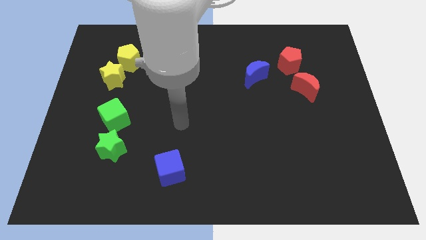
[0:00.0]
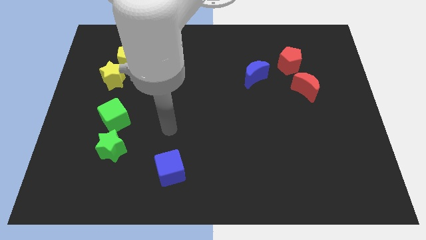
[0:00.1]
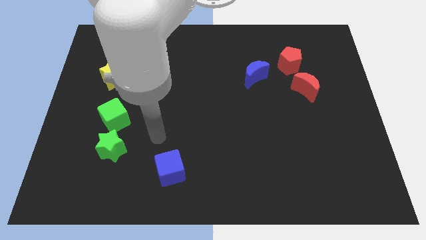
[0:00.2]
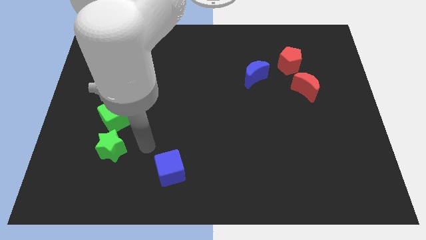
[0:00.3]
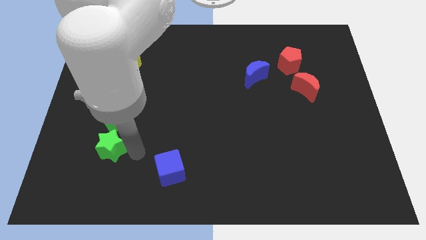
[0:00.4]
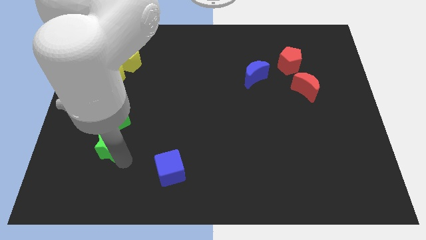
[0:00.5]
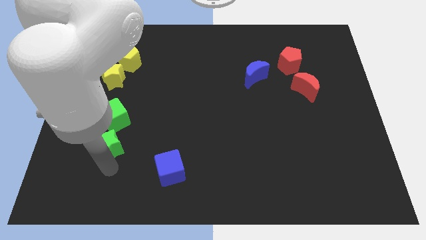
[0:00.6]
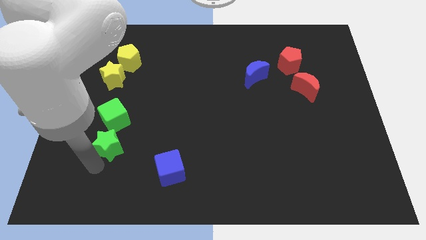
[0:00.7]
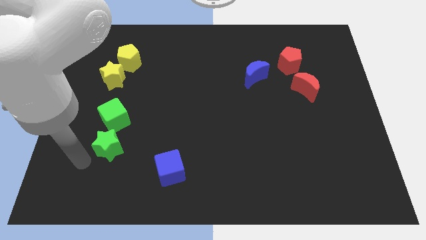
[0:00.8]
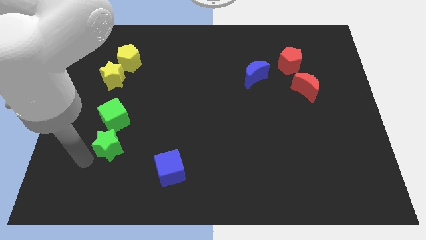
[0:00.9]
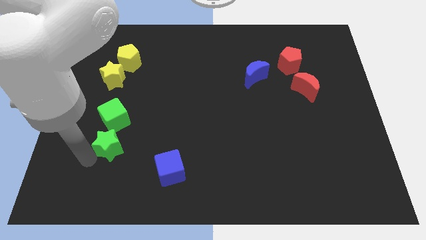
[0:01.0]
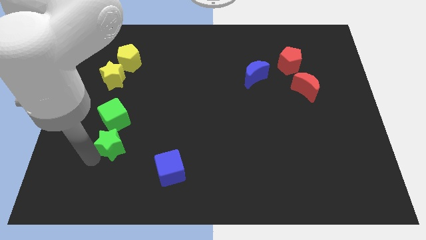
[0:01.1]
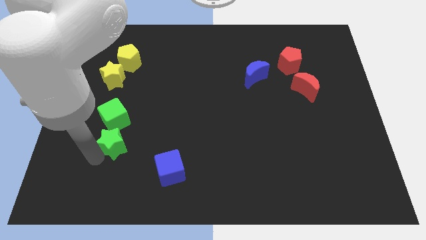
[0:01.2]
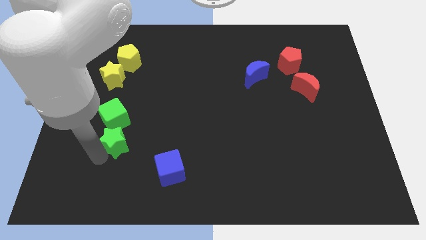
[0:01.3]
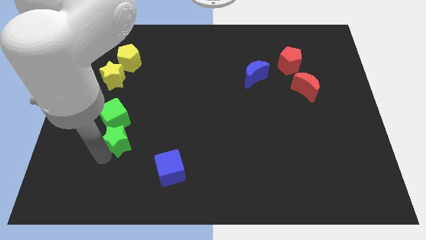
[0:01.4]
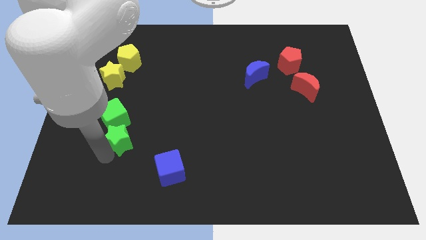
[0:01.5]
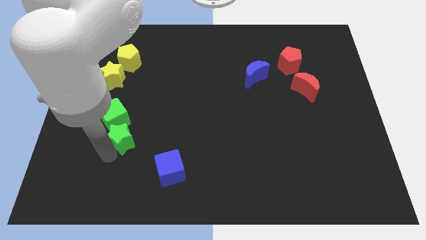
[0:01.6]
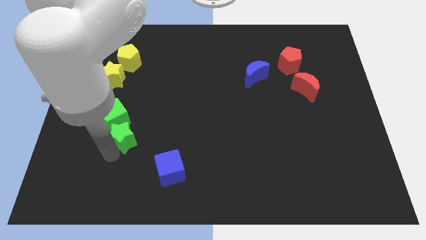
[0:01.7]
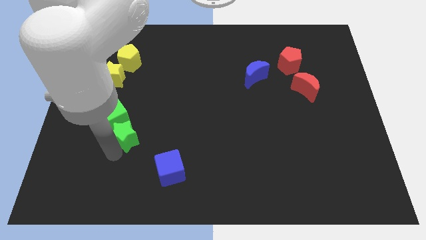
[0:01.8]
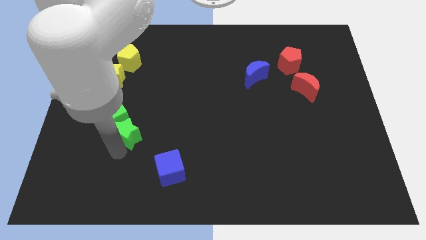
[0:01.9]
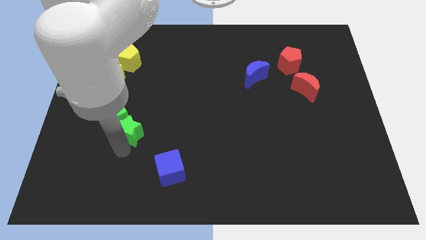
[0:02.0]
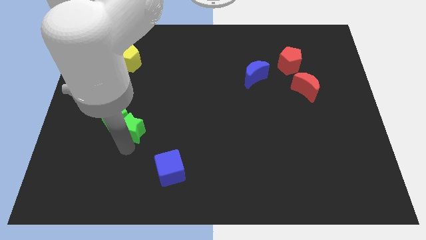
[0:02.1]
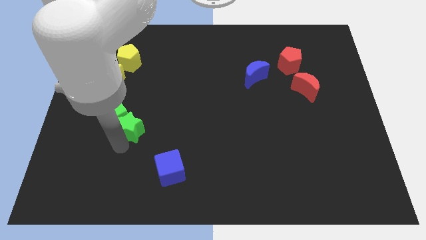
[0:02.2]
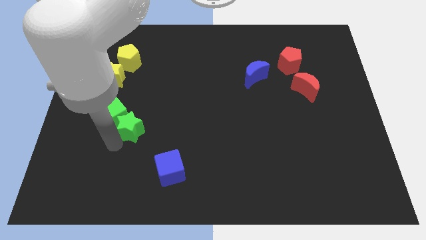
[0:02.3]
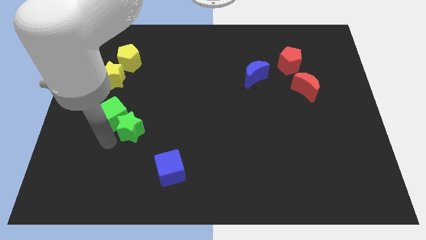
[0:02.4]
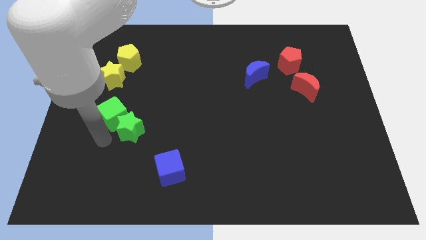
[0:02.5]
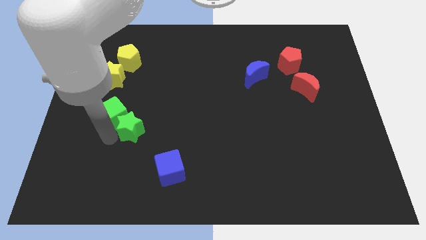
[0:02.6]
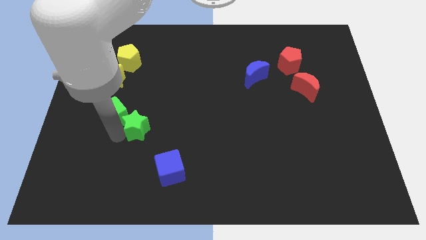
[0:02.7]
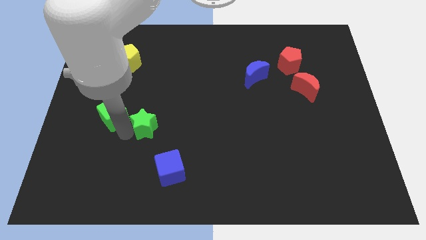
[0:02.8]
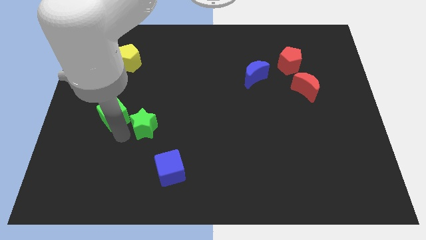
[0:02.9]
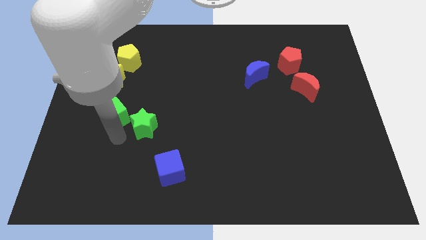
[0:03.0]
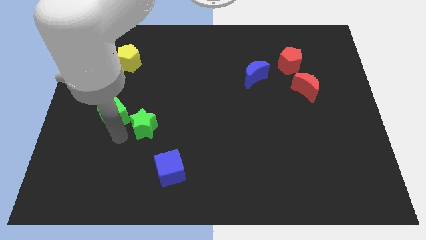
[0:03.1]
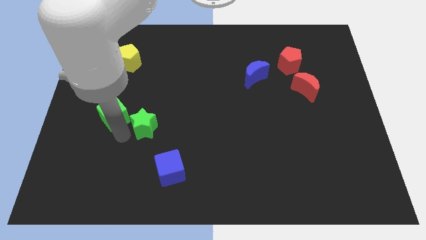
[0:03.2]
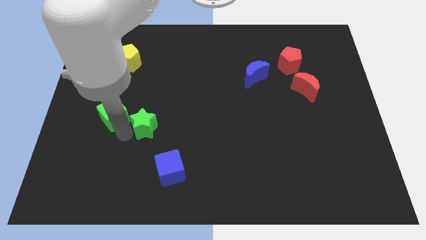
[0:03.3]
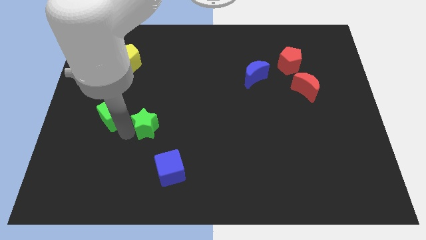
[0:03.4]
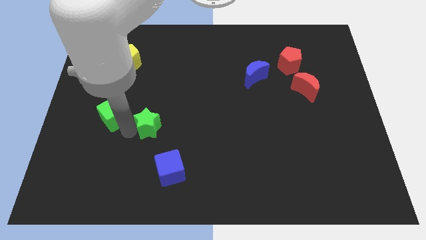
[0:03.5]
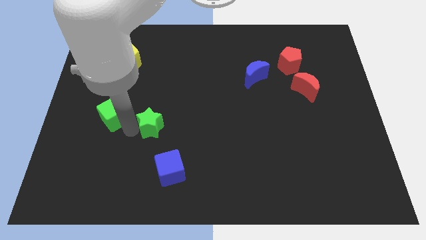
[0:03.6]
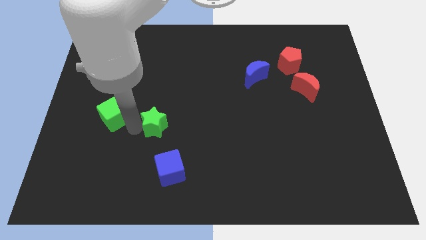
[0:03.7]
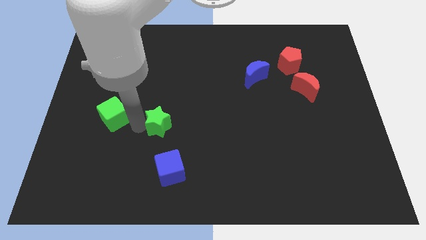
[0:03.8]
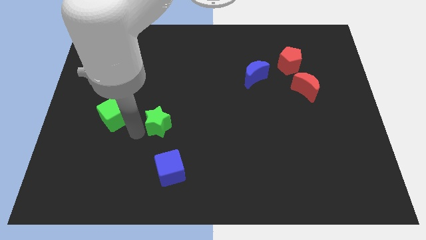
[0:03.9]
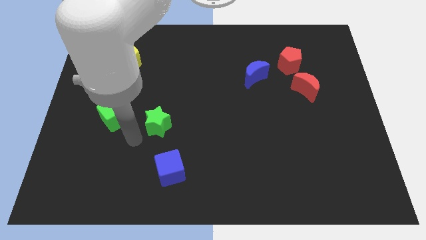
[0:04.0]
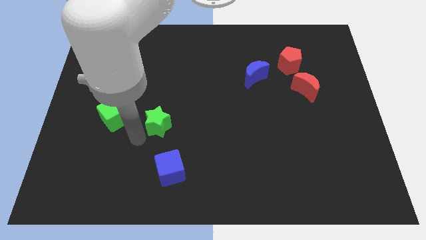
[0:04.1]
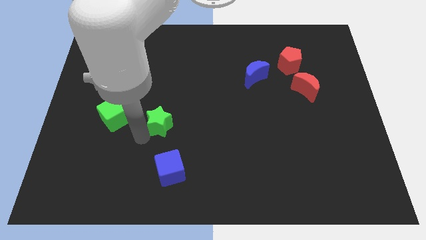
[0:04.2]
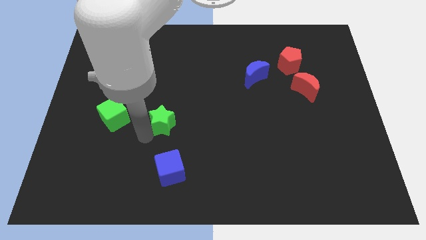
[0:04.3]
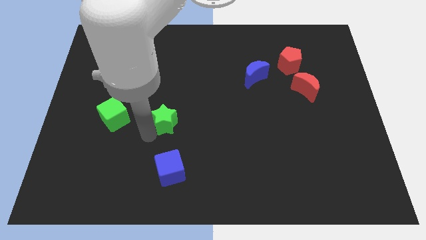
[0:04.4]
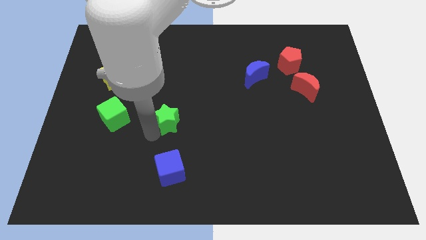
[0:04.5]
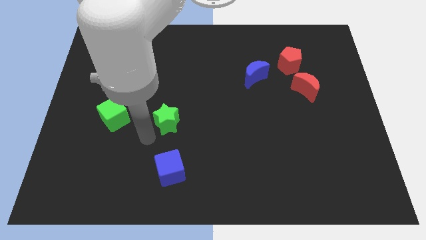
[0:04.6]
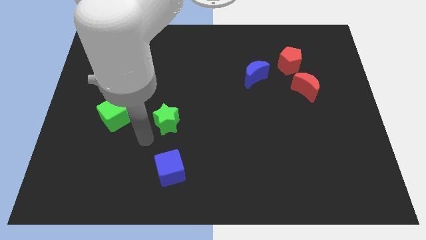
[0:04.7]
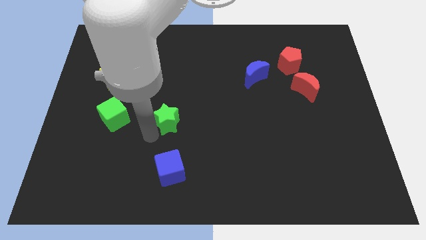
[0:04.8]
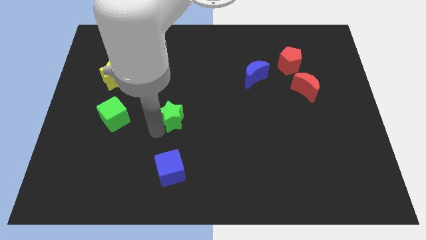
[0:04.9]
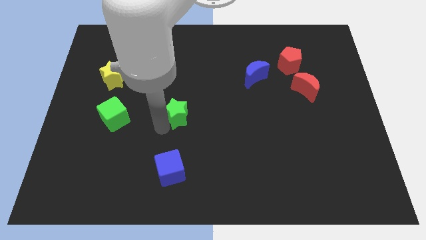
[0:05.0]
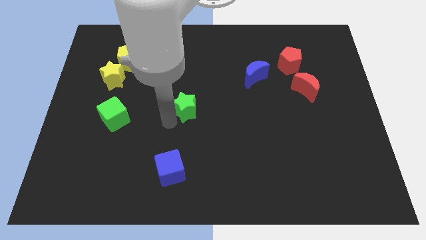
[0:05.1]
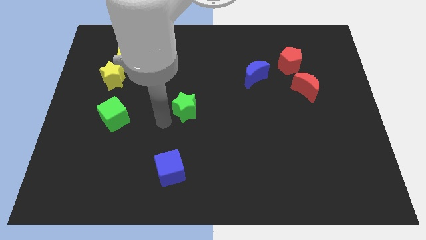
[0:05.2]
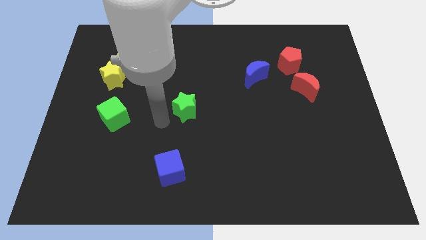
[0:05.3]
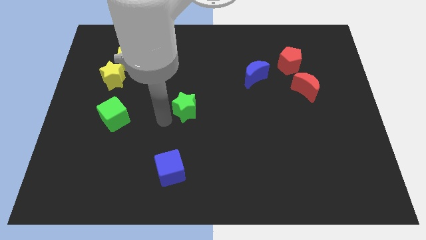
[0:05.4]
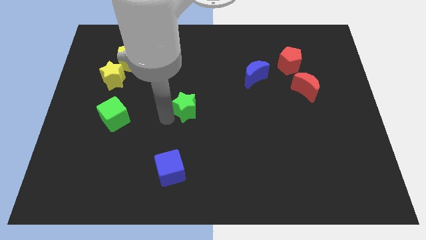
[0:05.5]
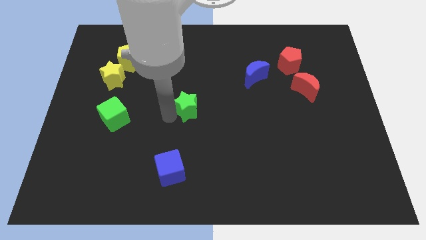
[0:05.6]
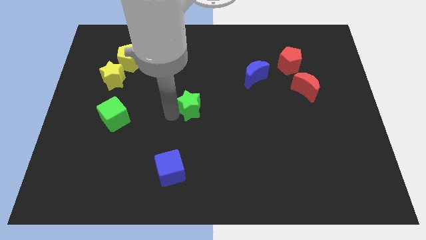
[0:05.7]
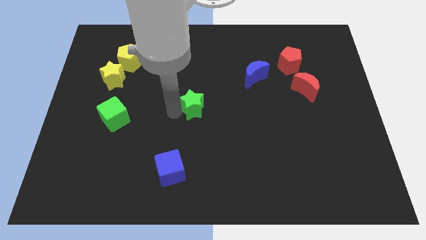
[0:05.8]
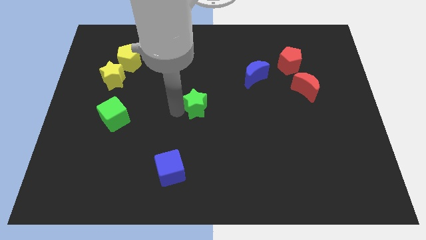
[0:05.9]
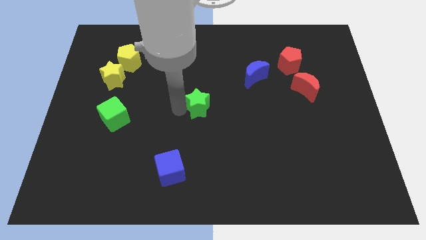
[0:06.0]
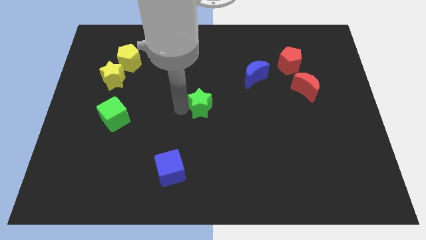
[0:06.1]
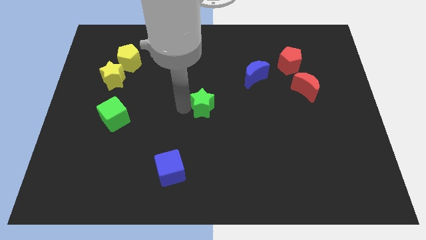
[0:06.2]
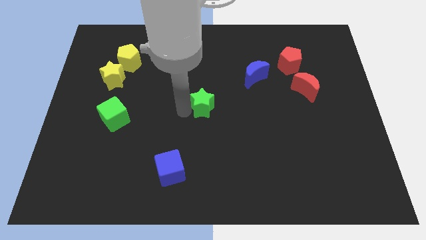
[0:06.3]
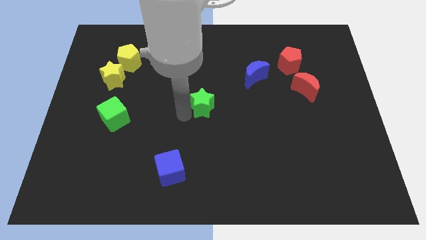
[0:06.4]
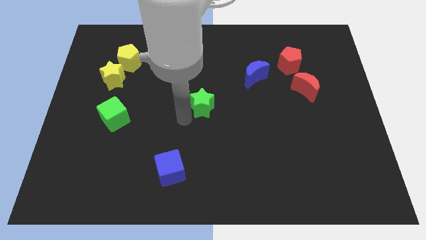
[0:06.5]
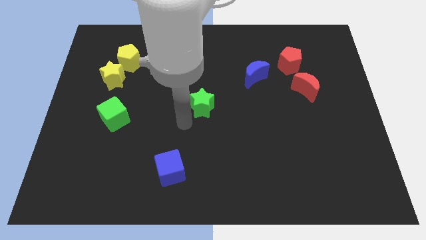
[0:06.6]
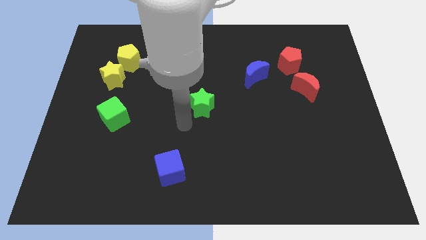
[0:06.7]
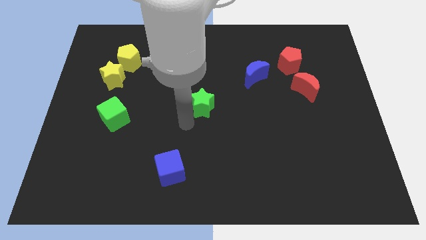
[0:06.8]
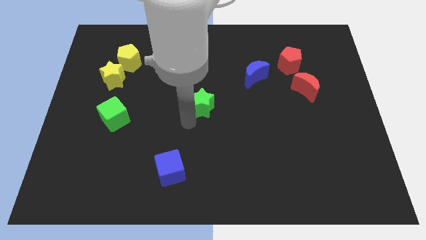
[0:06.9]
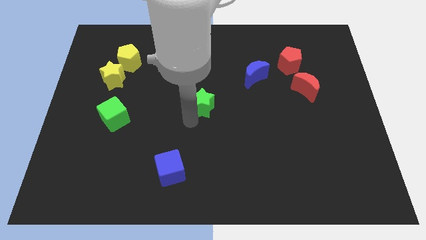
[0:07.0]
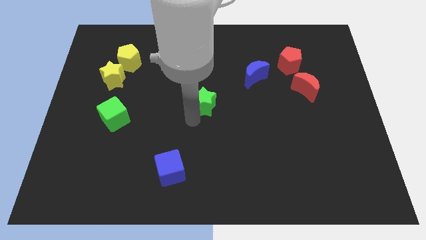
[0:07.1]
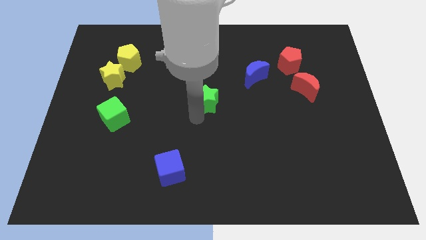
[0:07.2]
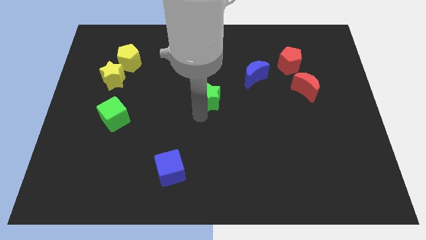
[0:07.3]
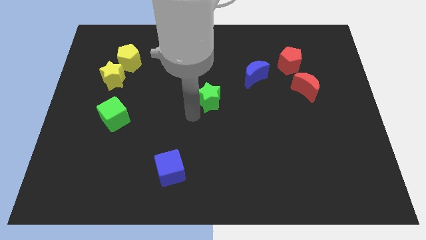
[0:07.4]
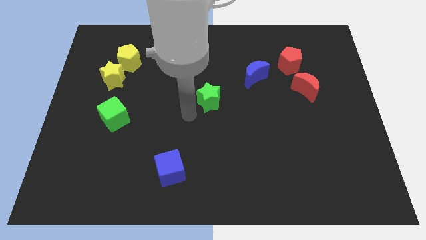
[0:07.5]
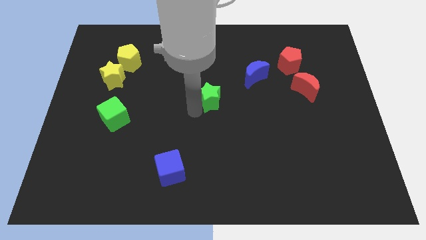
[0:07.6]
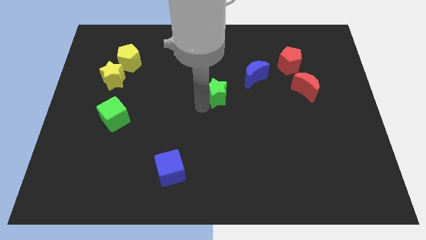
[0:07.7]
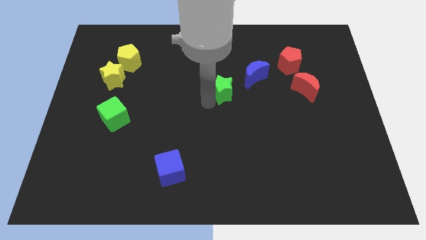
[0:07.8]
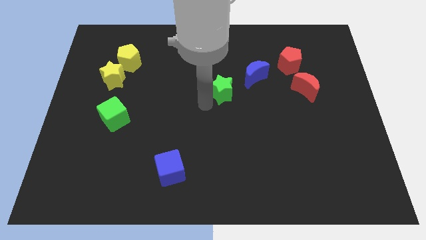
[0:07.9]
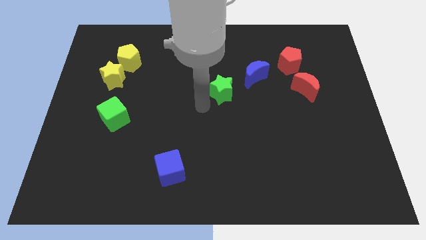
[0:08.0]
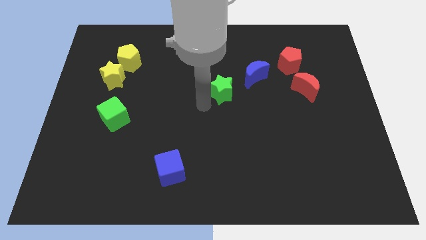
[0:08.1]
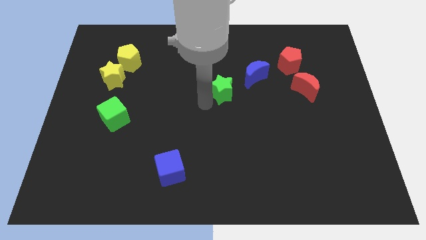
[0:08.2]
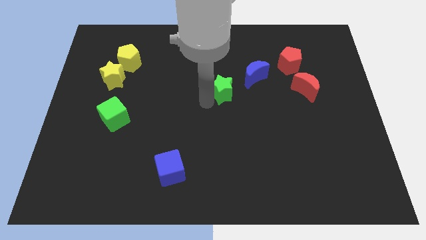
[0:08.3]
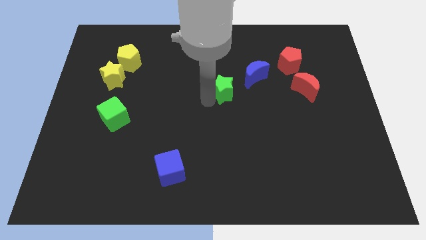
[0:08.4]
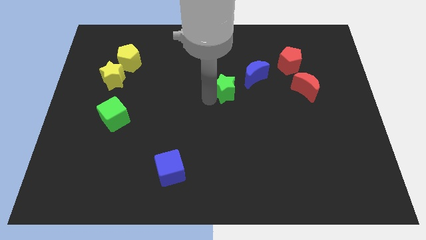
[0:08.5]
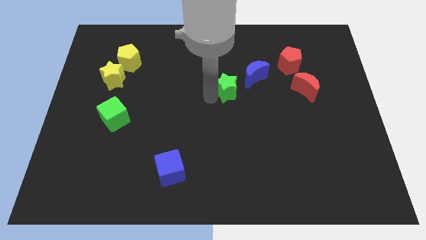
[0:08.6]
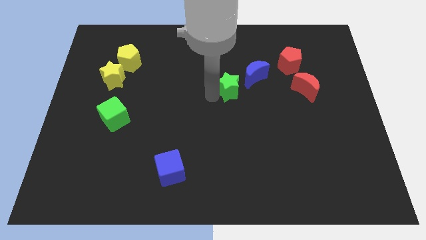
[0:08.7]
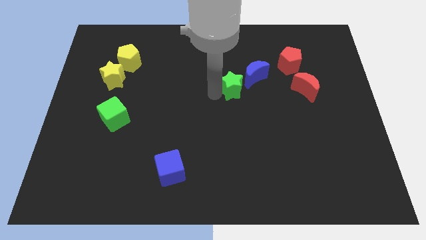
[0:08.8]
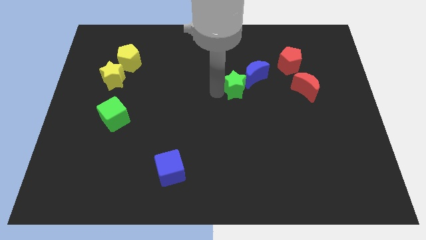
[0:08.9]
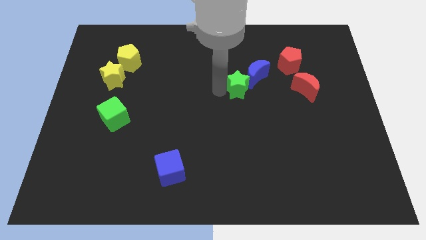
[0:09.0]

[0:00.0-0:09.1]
put the green star towards the blue moon
